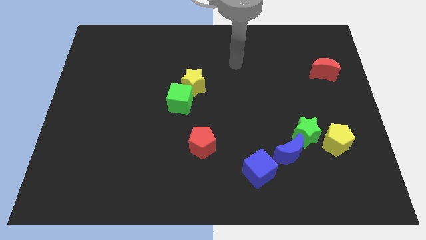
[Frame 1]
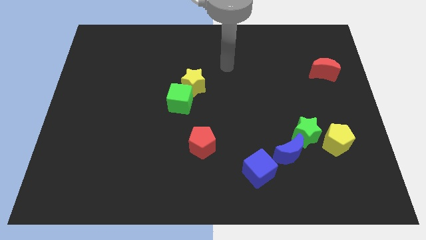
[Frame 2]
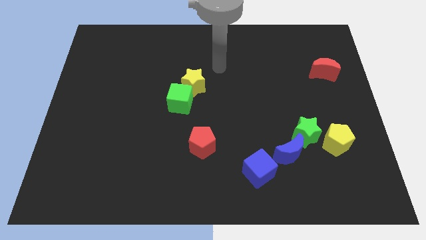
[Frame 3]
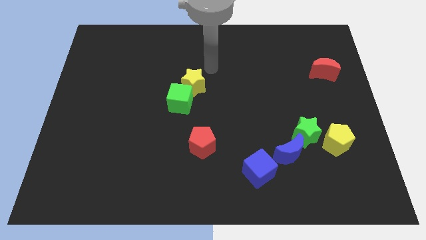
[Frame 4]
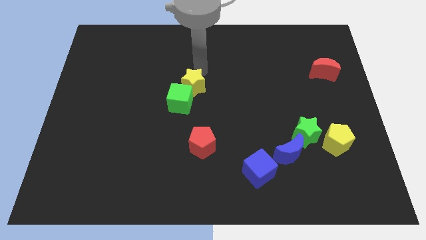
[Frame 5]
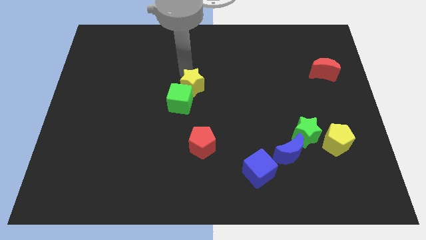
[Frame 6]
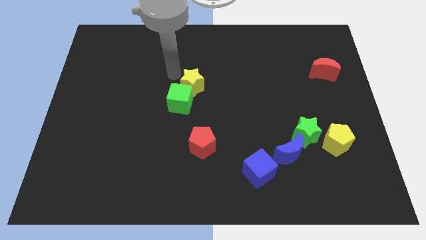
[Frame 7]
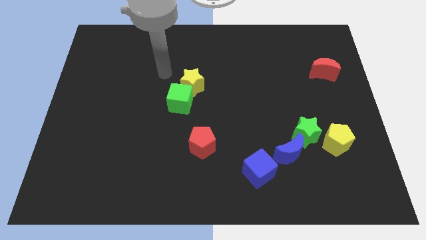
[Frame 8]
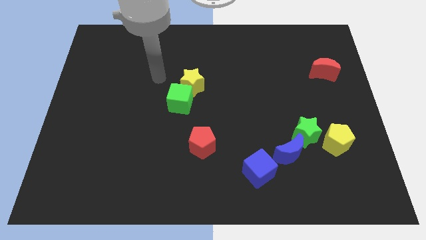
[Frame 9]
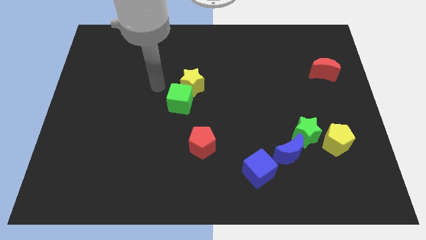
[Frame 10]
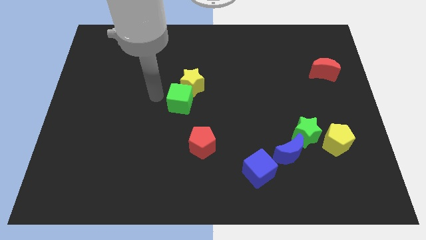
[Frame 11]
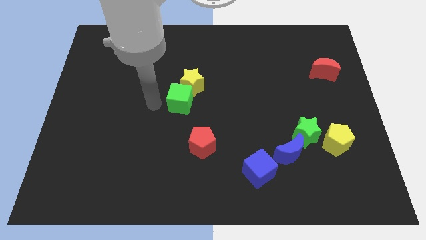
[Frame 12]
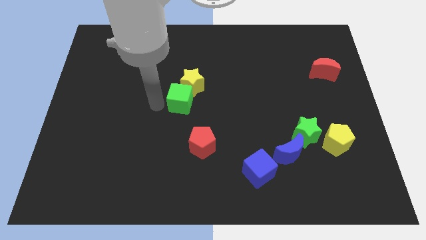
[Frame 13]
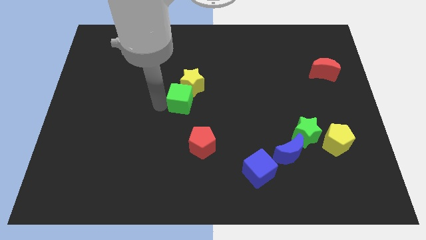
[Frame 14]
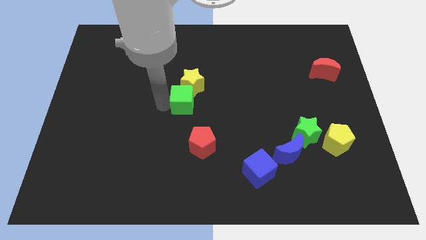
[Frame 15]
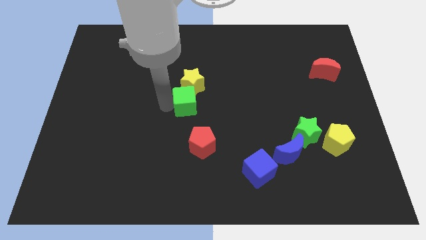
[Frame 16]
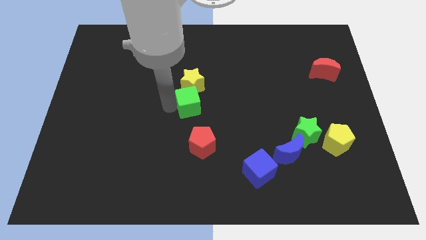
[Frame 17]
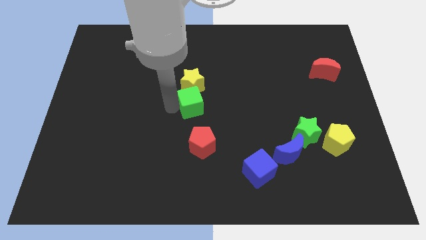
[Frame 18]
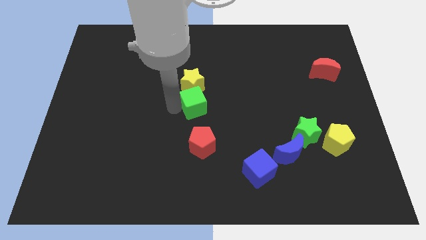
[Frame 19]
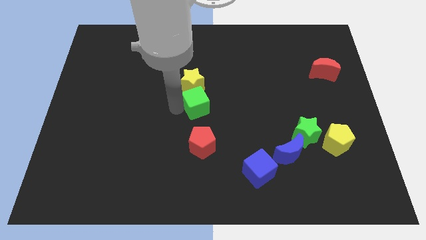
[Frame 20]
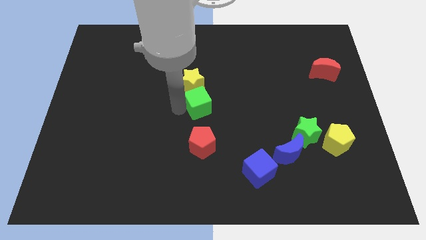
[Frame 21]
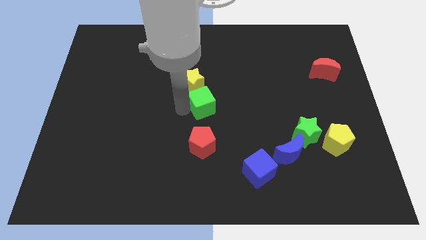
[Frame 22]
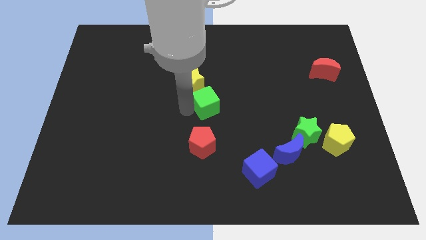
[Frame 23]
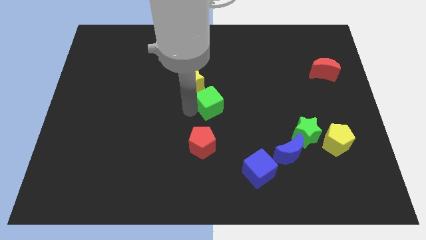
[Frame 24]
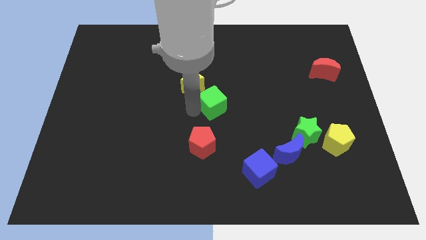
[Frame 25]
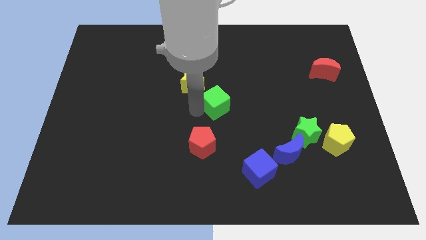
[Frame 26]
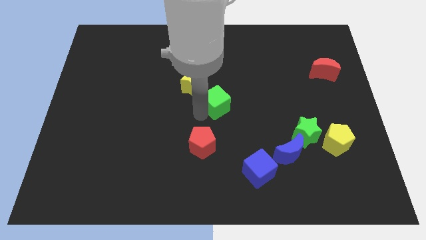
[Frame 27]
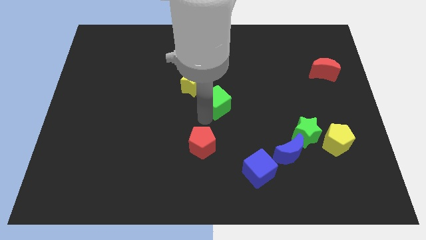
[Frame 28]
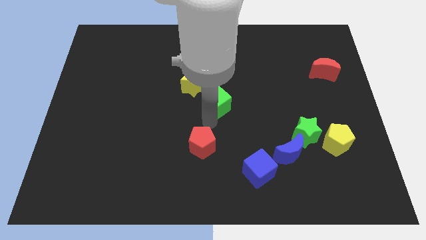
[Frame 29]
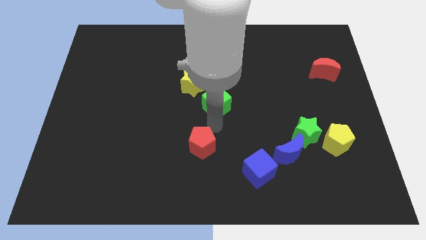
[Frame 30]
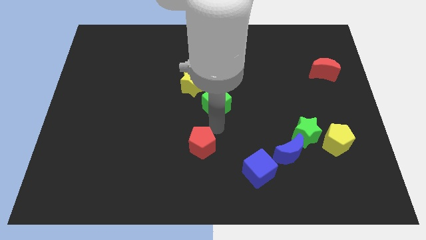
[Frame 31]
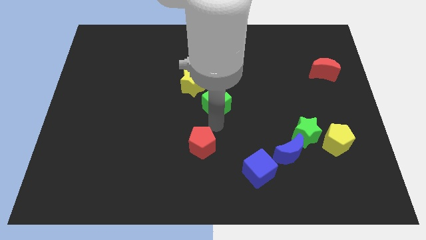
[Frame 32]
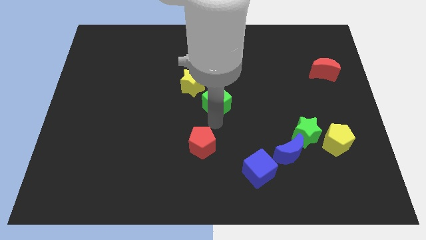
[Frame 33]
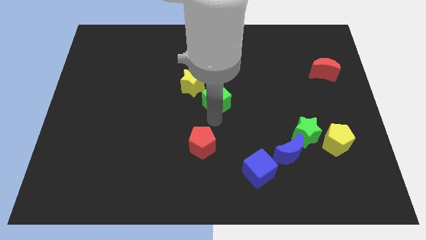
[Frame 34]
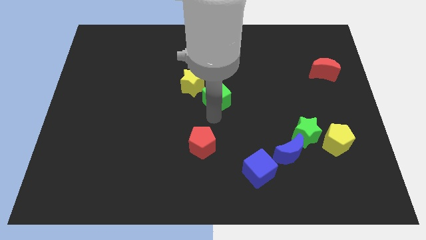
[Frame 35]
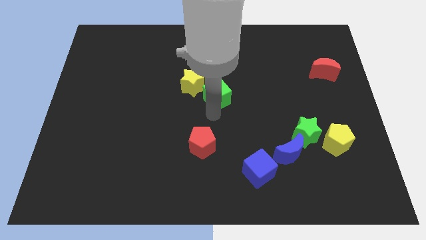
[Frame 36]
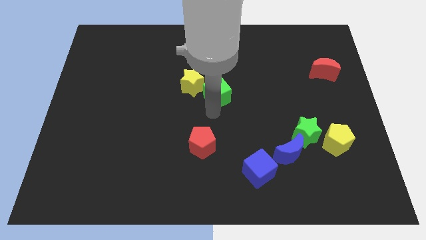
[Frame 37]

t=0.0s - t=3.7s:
push the green cube a little diagonally upwards and right

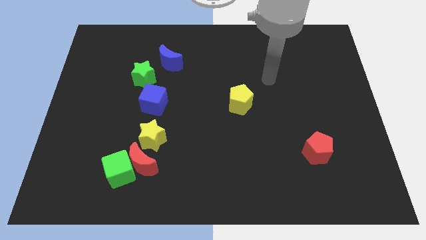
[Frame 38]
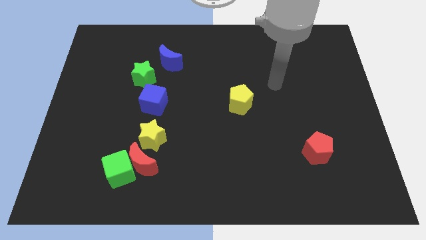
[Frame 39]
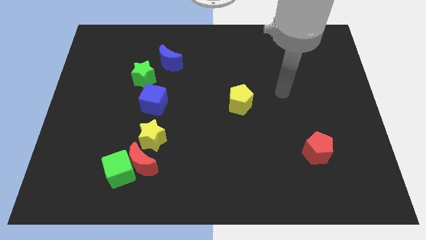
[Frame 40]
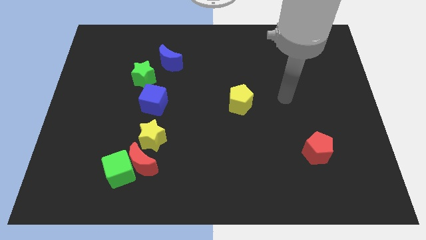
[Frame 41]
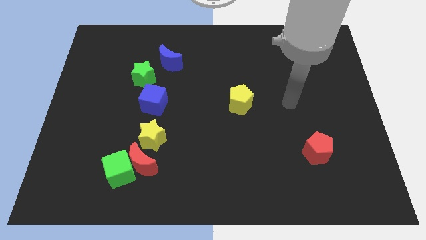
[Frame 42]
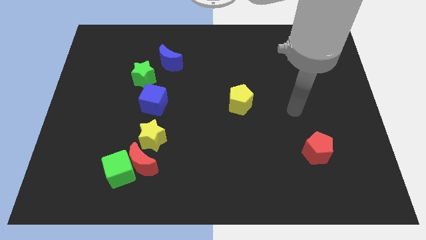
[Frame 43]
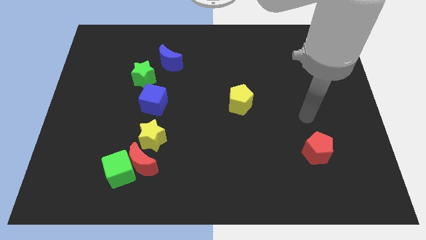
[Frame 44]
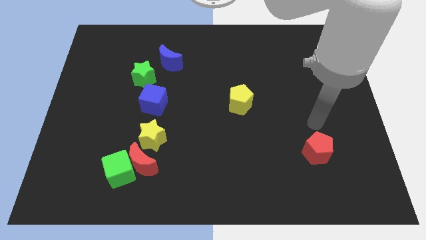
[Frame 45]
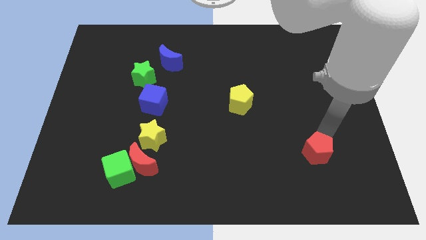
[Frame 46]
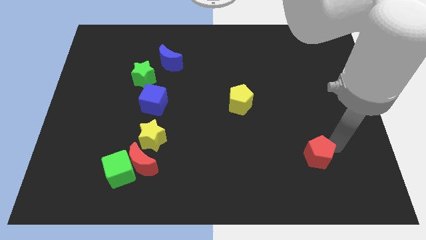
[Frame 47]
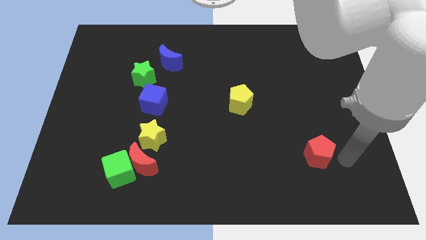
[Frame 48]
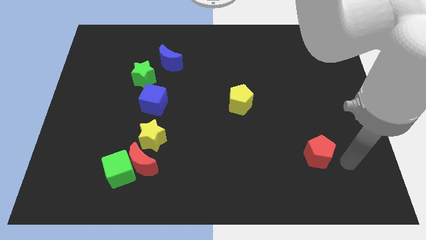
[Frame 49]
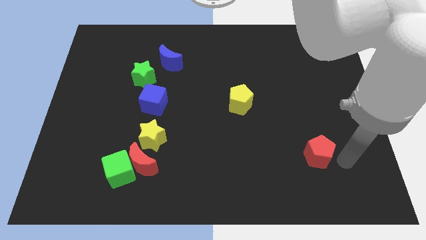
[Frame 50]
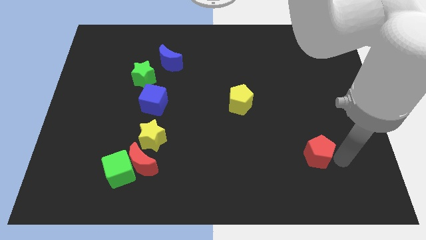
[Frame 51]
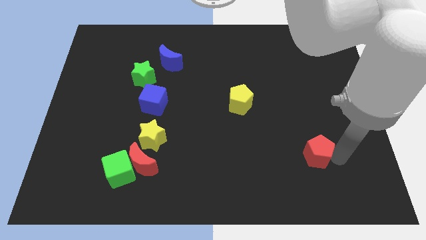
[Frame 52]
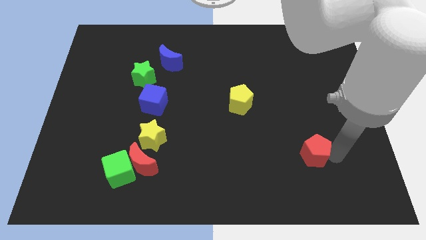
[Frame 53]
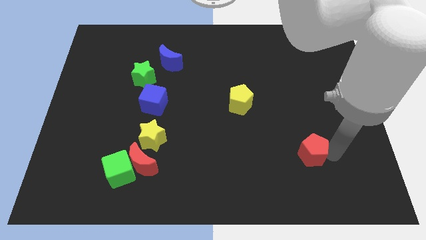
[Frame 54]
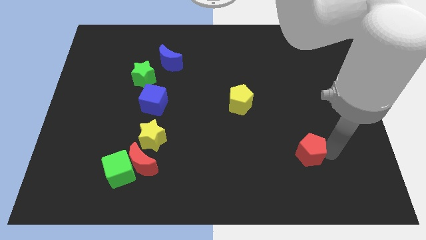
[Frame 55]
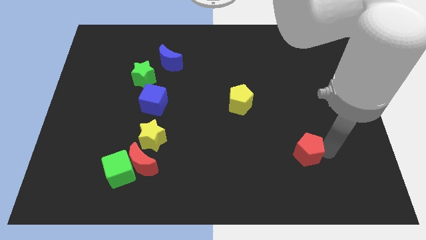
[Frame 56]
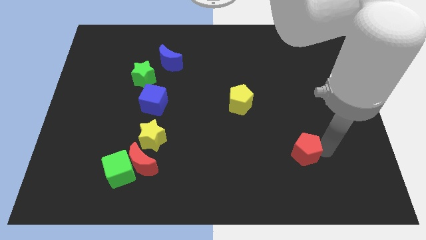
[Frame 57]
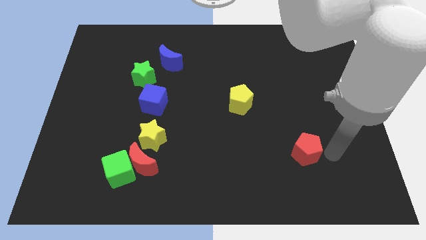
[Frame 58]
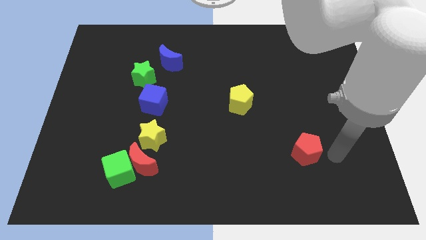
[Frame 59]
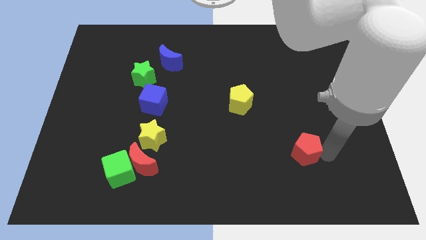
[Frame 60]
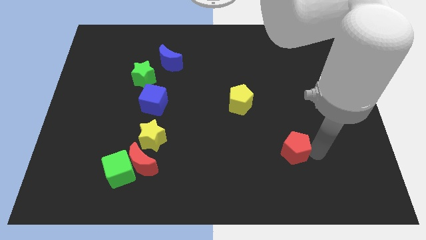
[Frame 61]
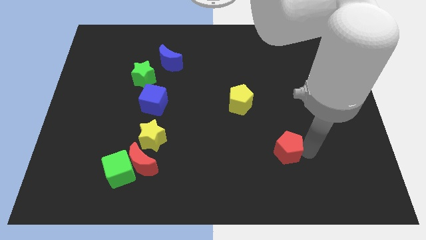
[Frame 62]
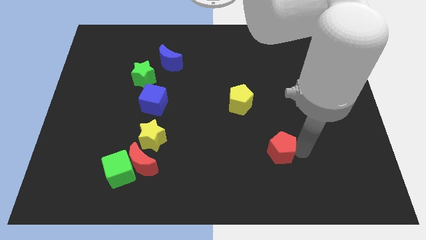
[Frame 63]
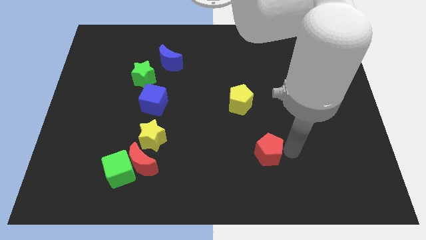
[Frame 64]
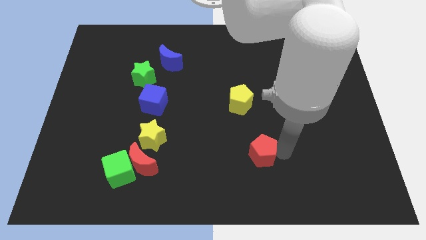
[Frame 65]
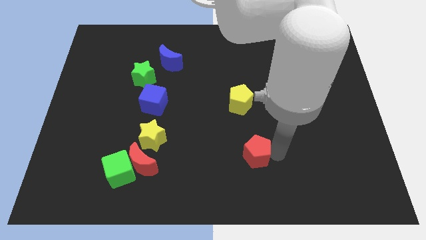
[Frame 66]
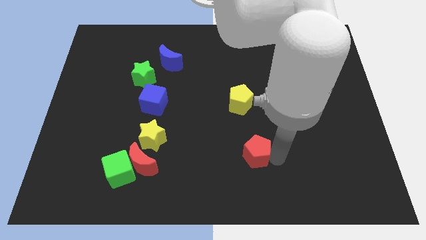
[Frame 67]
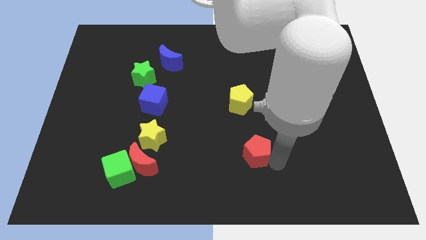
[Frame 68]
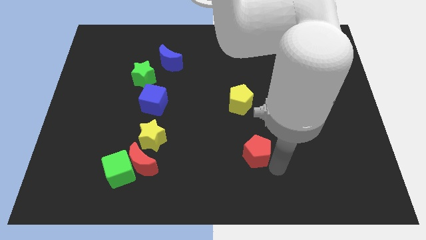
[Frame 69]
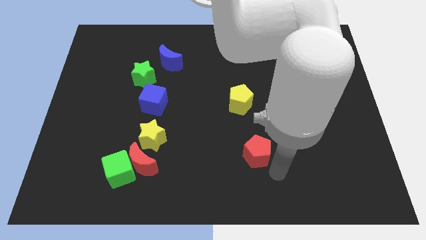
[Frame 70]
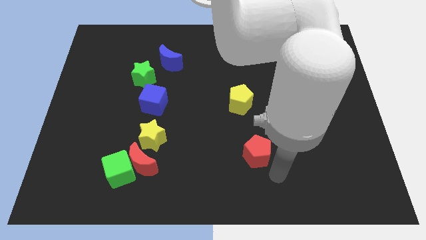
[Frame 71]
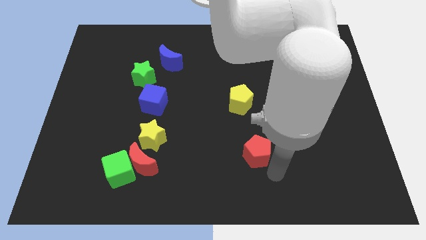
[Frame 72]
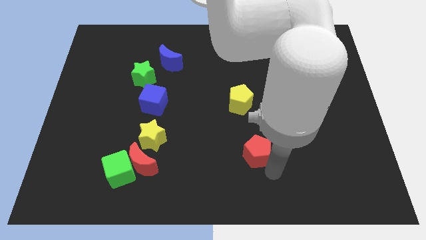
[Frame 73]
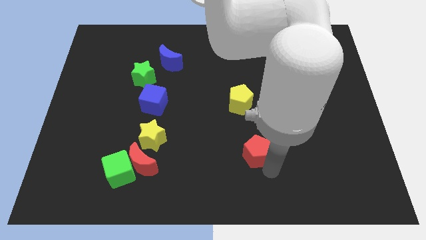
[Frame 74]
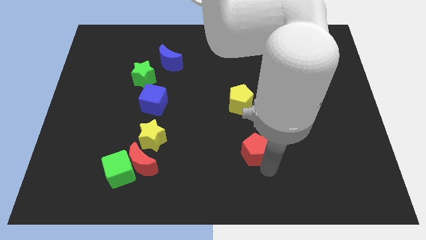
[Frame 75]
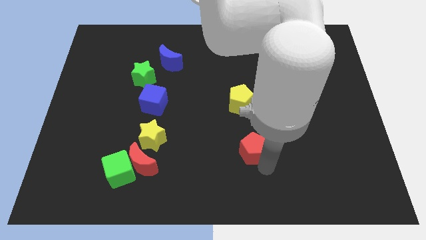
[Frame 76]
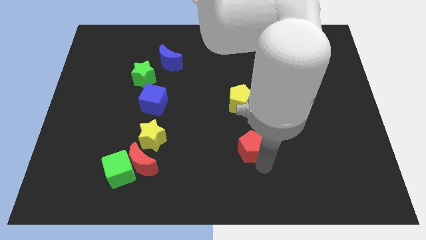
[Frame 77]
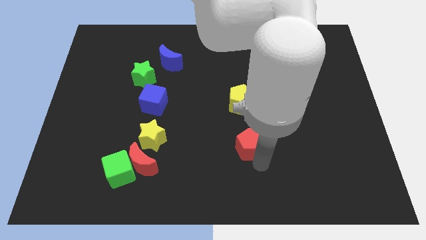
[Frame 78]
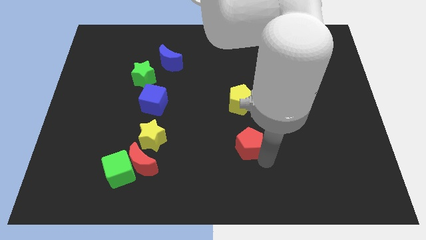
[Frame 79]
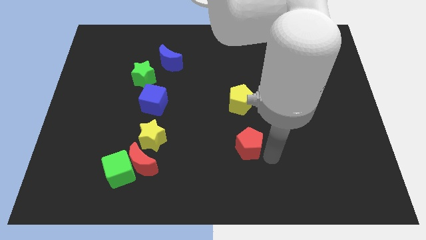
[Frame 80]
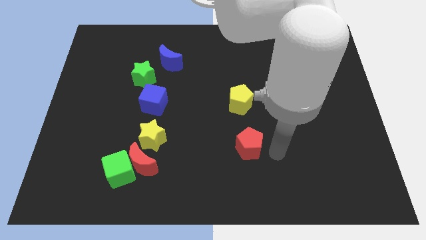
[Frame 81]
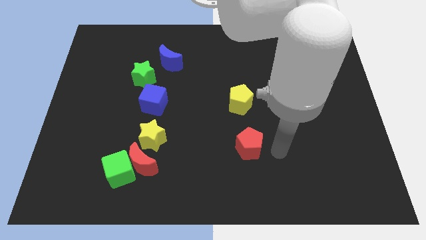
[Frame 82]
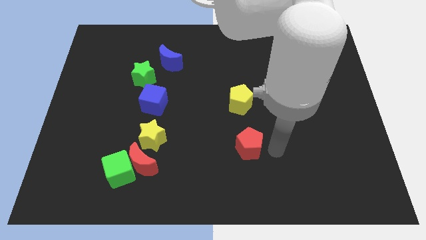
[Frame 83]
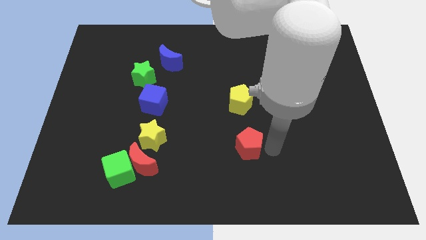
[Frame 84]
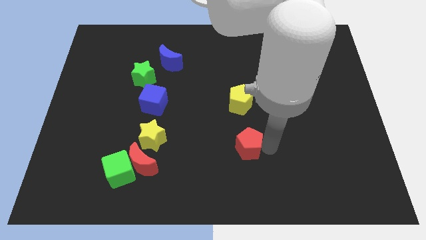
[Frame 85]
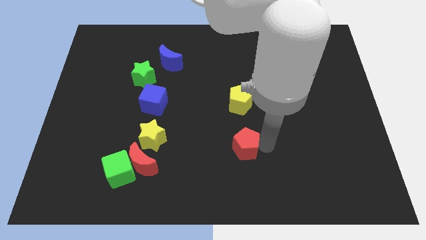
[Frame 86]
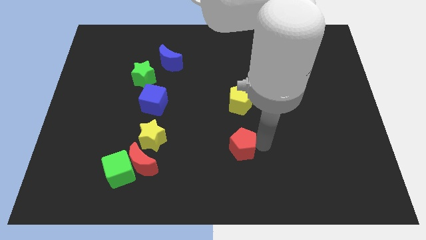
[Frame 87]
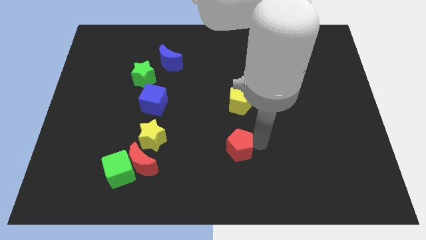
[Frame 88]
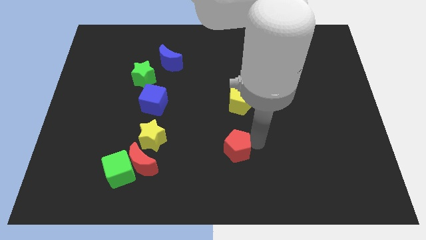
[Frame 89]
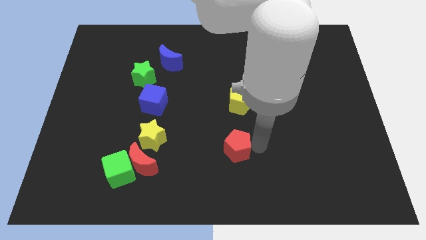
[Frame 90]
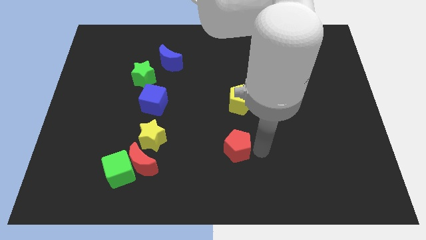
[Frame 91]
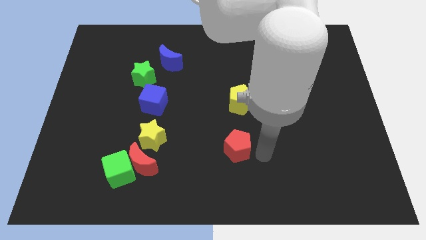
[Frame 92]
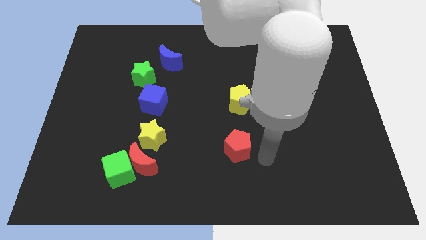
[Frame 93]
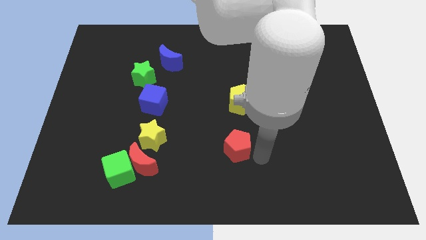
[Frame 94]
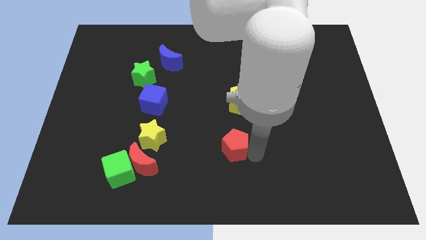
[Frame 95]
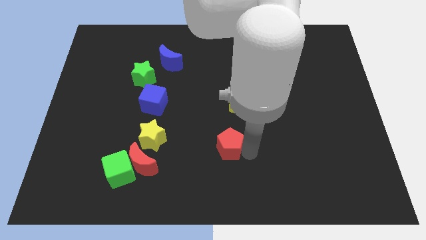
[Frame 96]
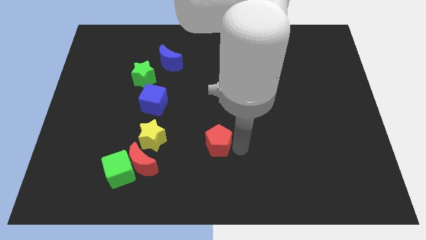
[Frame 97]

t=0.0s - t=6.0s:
slide the red pentagon to the left
